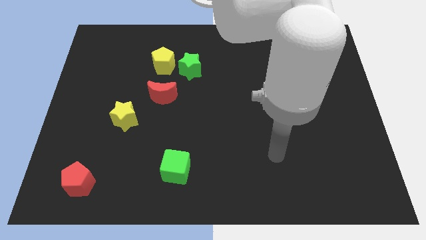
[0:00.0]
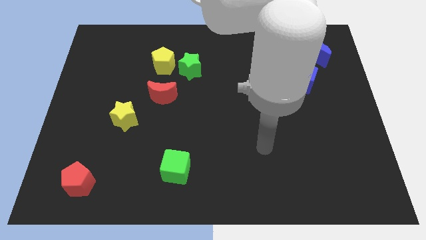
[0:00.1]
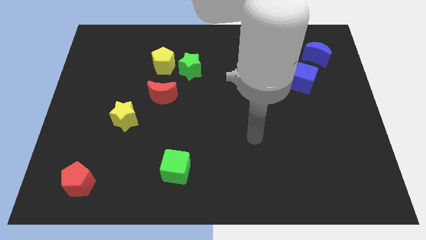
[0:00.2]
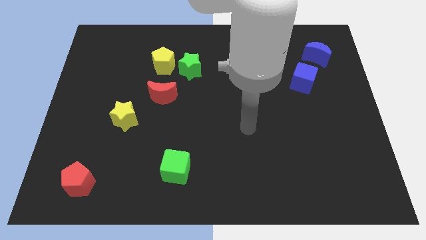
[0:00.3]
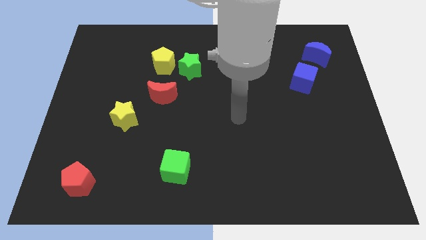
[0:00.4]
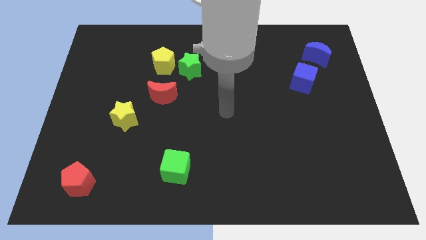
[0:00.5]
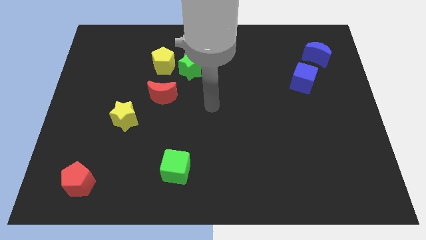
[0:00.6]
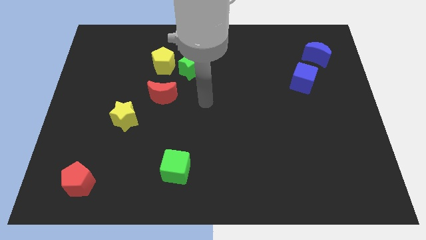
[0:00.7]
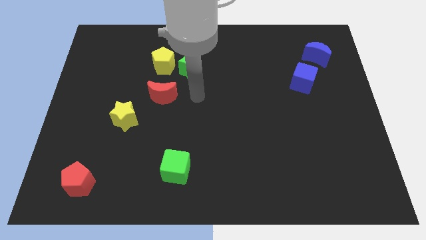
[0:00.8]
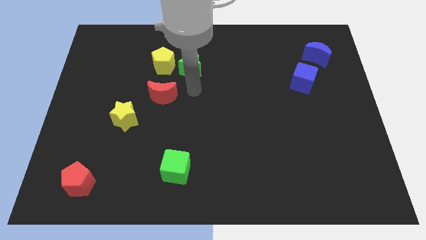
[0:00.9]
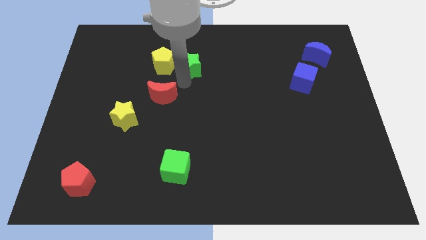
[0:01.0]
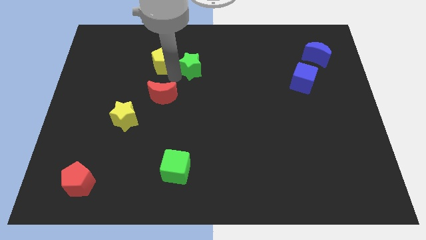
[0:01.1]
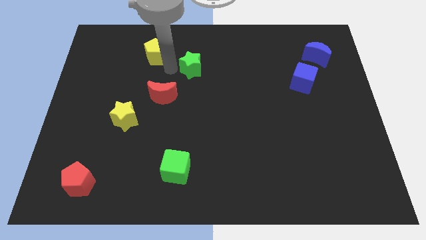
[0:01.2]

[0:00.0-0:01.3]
move the green star away from the yellow pentagon

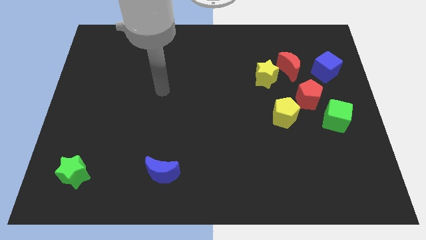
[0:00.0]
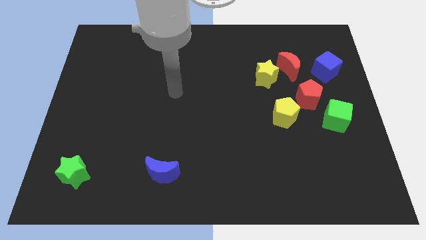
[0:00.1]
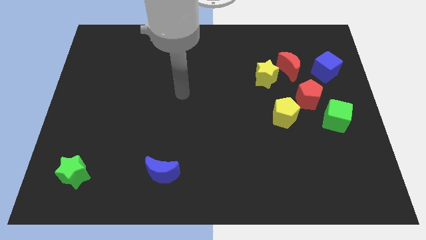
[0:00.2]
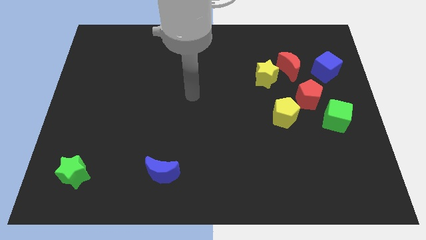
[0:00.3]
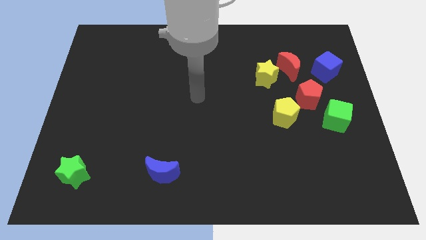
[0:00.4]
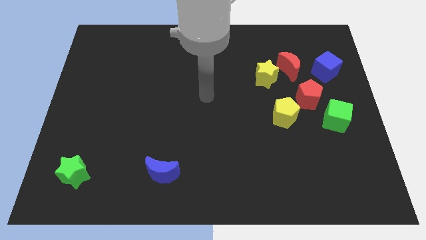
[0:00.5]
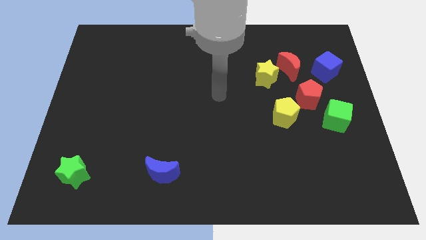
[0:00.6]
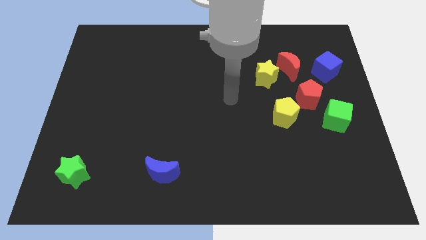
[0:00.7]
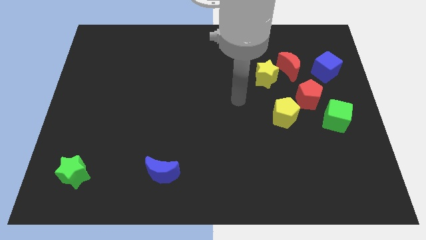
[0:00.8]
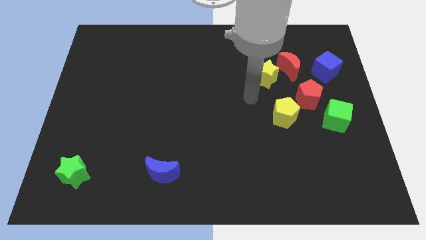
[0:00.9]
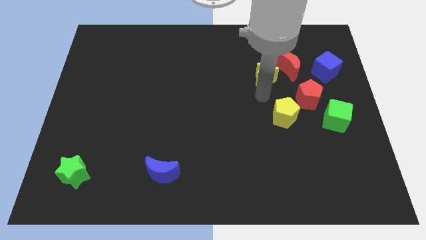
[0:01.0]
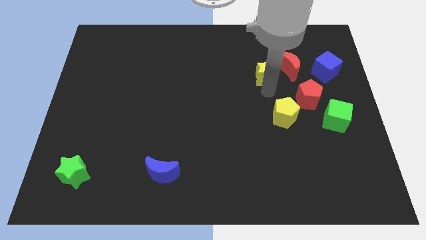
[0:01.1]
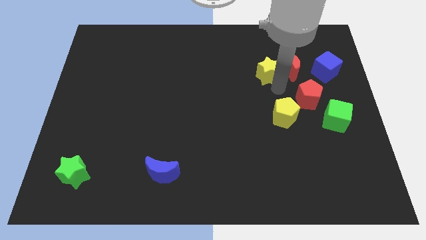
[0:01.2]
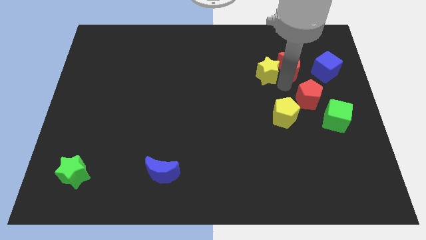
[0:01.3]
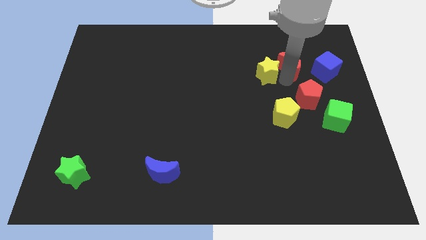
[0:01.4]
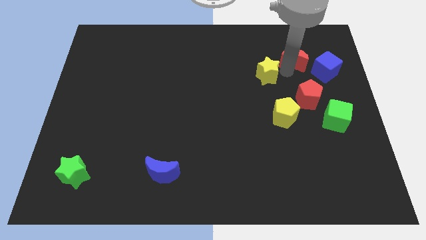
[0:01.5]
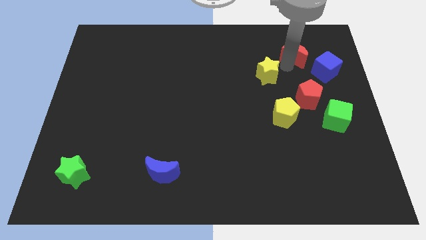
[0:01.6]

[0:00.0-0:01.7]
pull the yellow star apart from the red moon

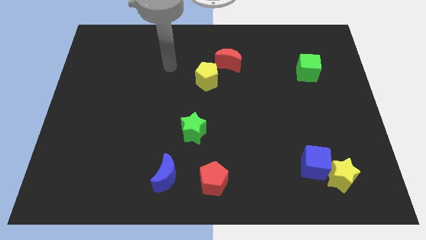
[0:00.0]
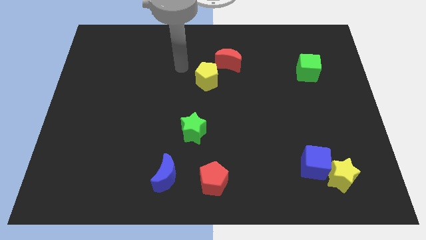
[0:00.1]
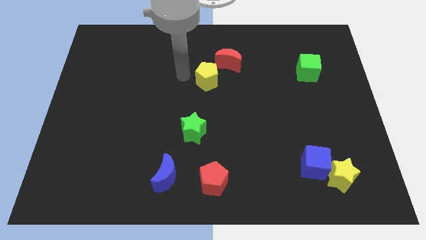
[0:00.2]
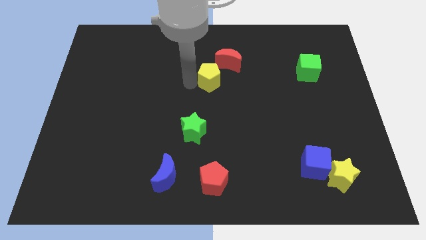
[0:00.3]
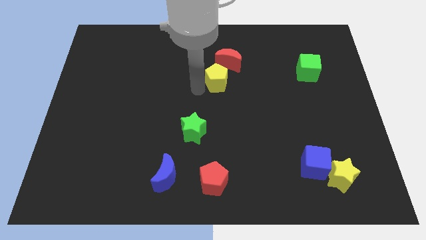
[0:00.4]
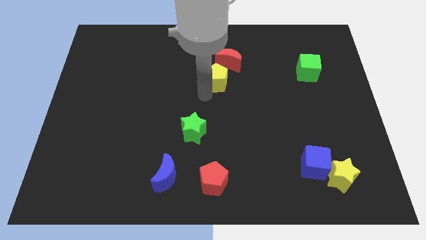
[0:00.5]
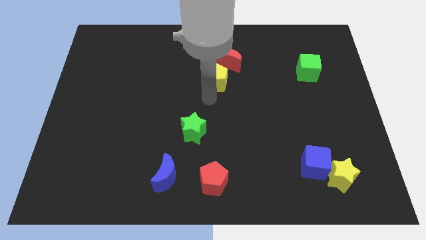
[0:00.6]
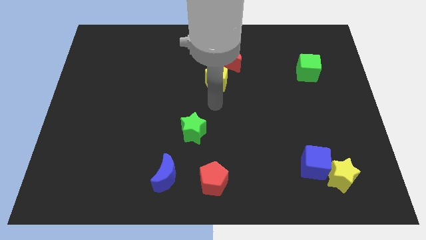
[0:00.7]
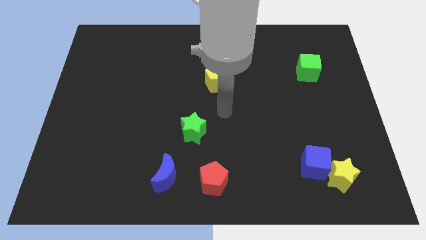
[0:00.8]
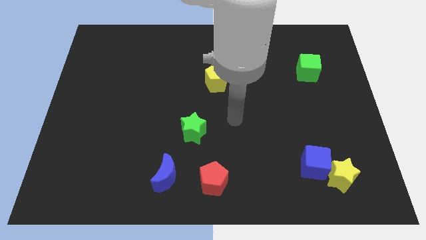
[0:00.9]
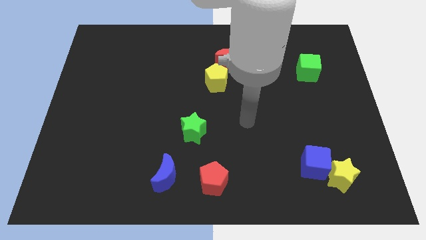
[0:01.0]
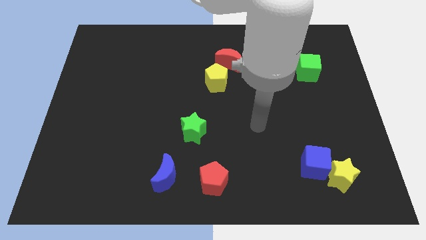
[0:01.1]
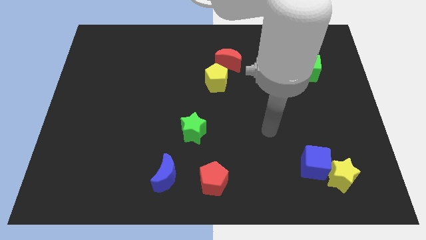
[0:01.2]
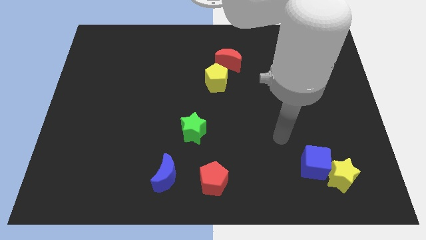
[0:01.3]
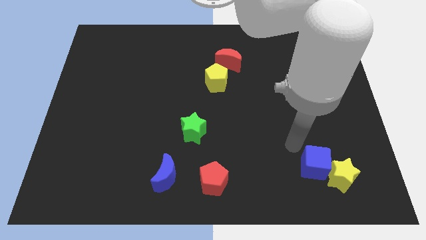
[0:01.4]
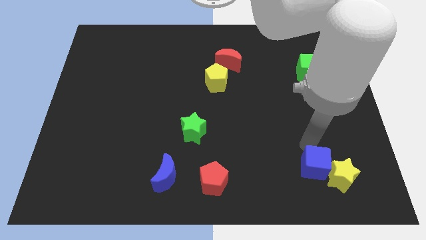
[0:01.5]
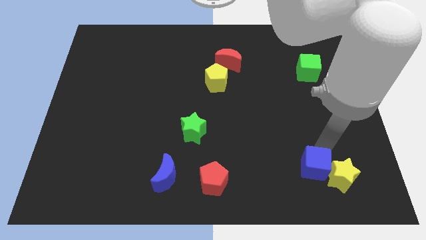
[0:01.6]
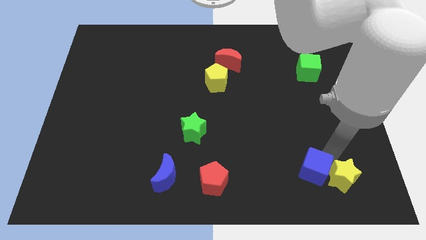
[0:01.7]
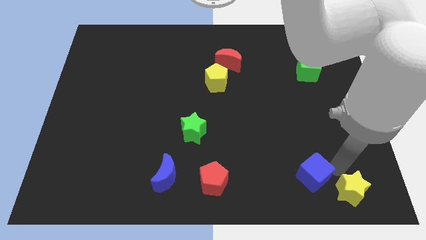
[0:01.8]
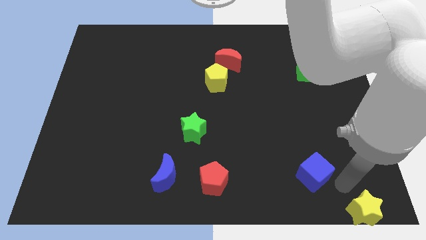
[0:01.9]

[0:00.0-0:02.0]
pull the blue cube apart from the yellow star

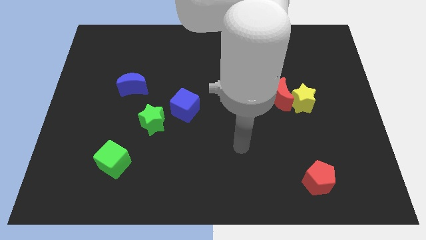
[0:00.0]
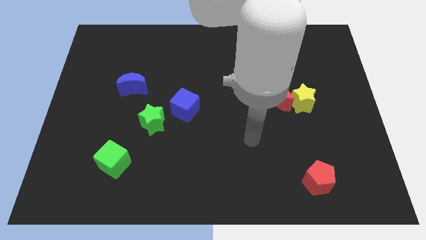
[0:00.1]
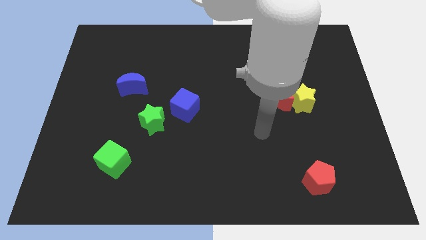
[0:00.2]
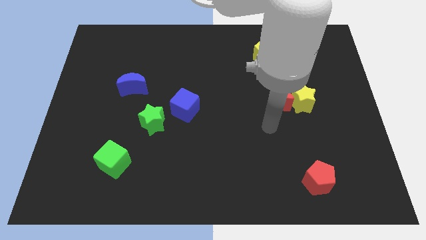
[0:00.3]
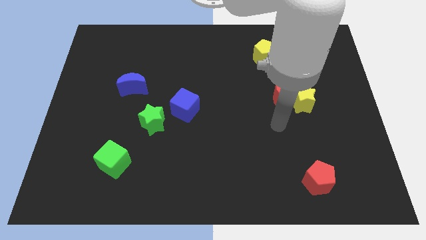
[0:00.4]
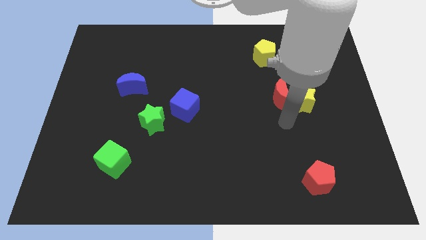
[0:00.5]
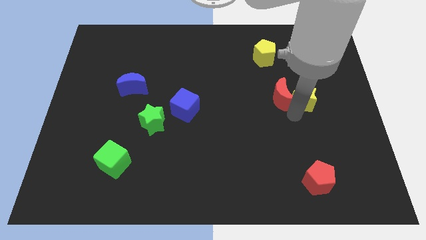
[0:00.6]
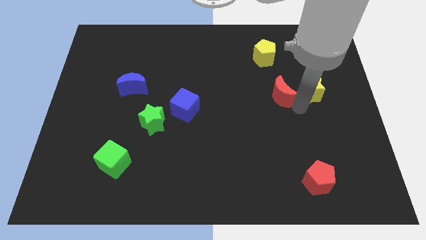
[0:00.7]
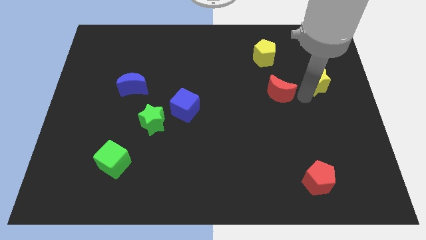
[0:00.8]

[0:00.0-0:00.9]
separate the red moon from the yellow star

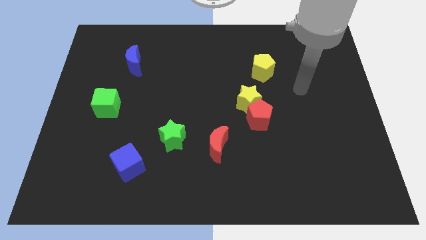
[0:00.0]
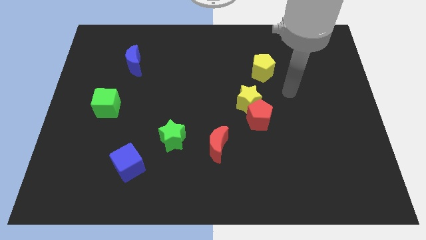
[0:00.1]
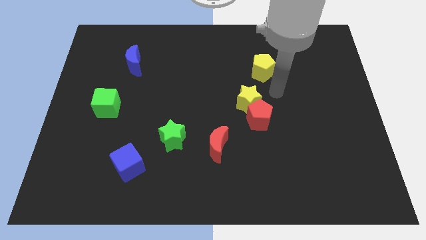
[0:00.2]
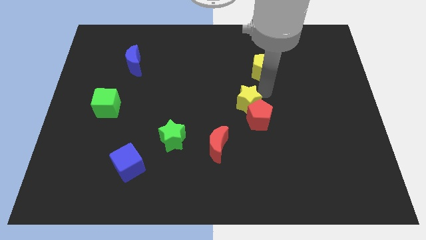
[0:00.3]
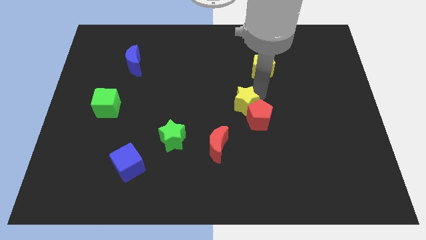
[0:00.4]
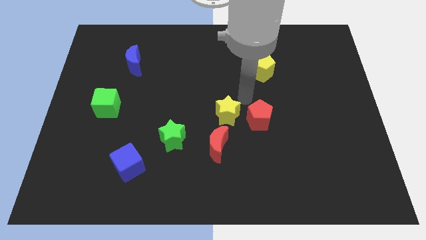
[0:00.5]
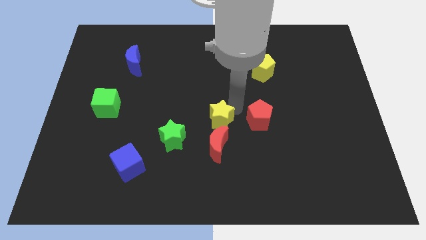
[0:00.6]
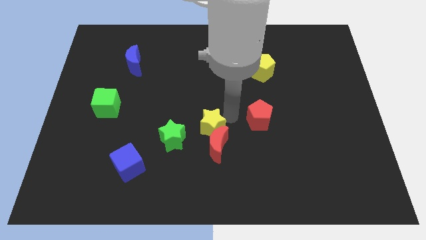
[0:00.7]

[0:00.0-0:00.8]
separate the red pentagon from the yellow star

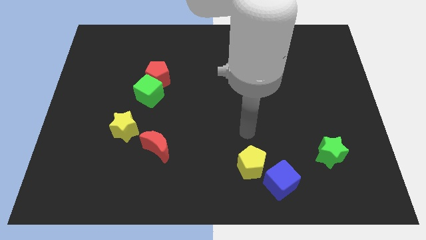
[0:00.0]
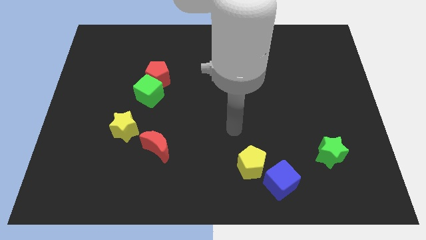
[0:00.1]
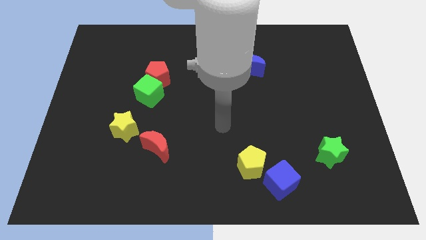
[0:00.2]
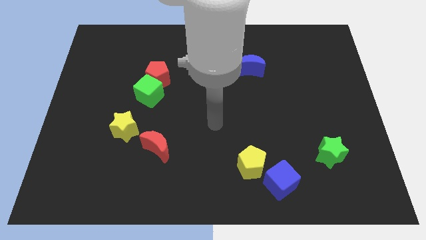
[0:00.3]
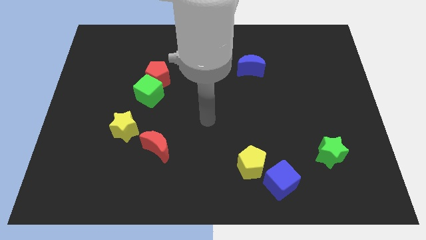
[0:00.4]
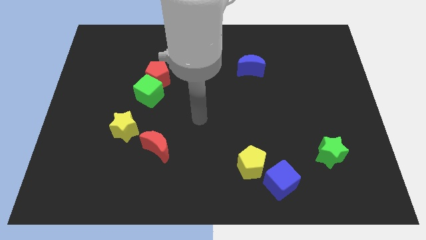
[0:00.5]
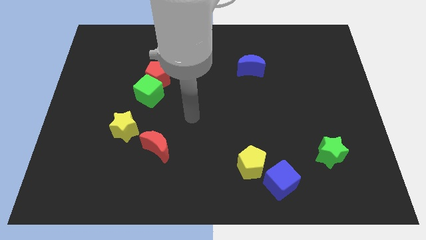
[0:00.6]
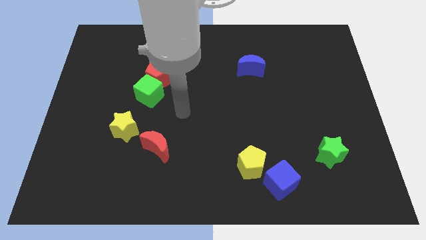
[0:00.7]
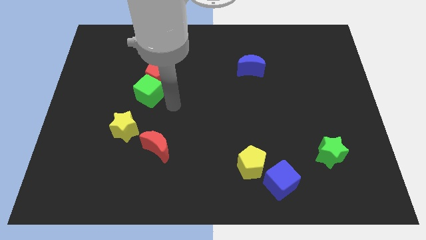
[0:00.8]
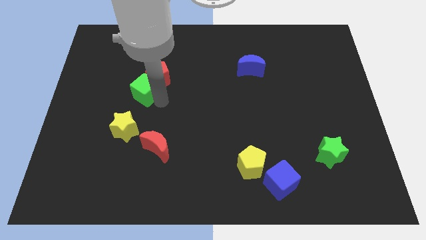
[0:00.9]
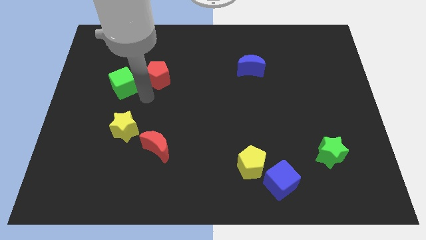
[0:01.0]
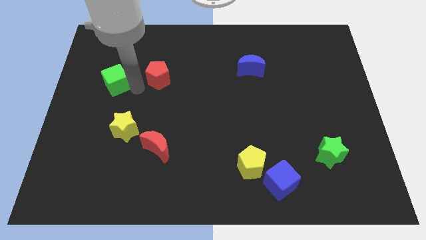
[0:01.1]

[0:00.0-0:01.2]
separate the red pentagon from the green cube

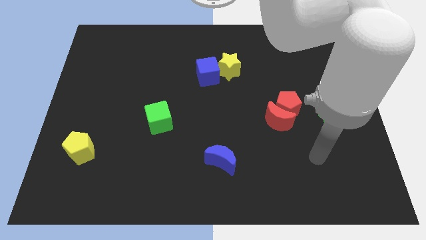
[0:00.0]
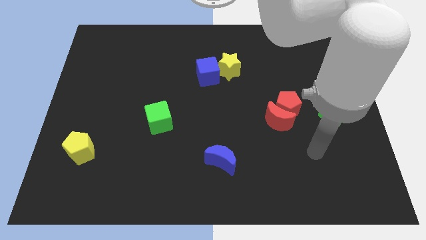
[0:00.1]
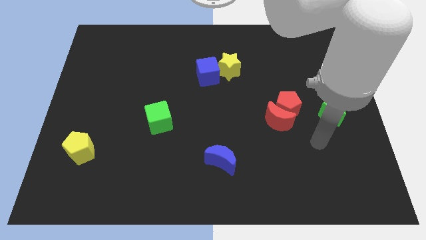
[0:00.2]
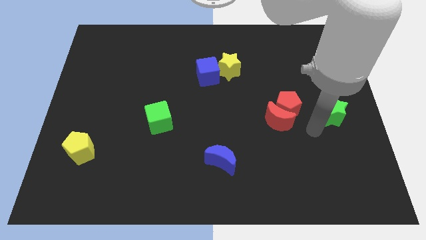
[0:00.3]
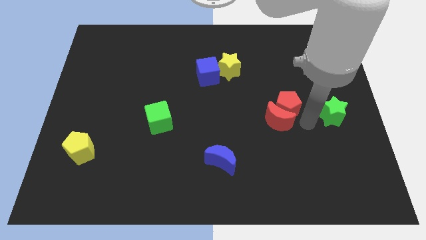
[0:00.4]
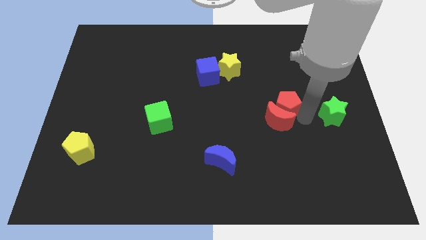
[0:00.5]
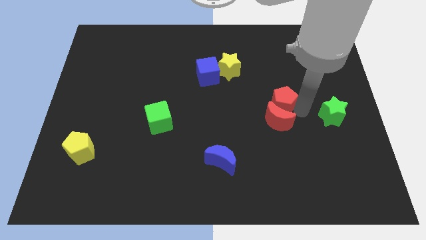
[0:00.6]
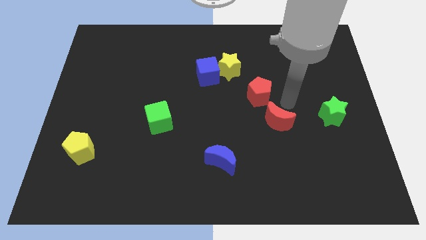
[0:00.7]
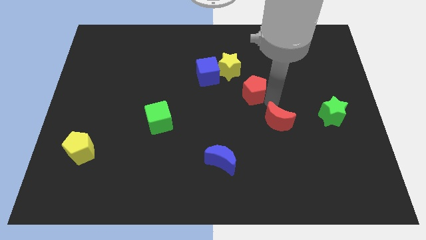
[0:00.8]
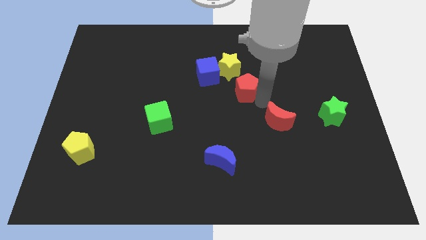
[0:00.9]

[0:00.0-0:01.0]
separate the red moon from the red pentagon

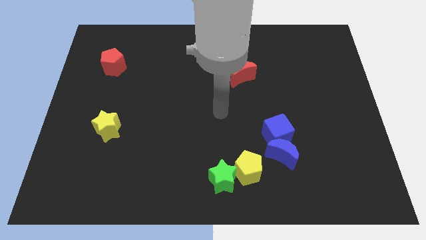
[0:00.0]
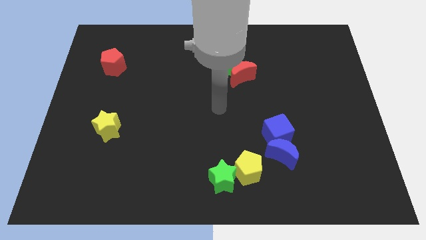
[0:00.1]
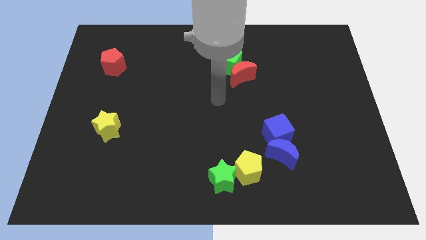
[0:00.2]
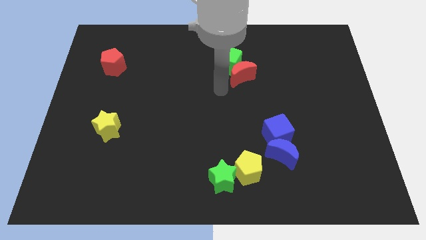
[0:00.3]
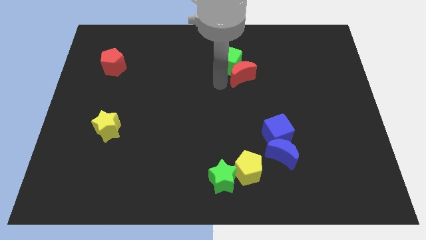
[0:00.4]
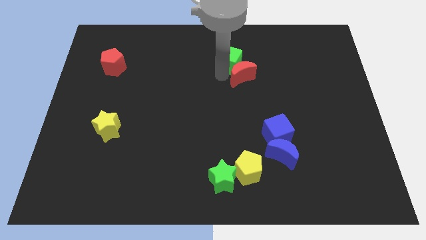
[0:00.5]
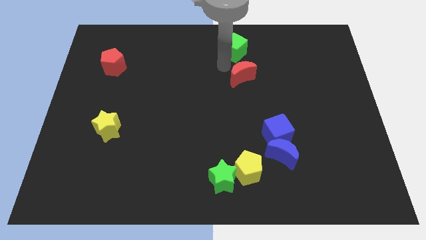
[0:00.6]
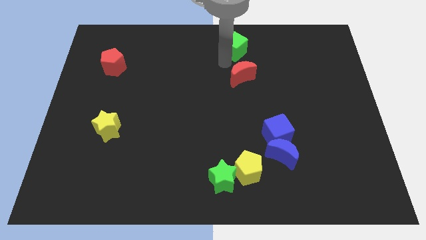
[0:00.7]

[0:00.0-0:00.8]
separate the red moon from the green cube
